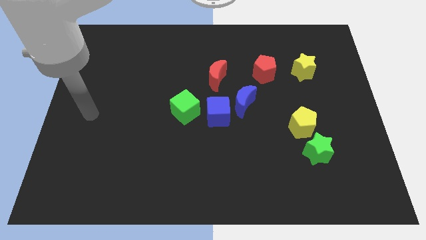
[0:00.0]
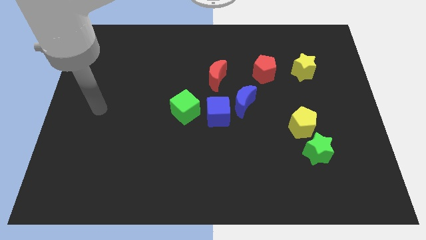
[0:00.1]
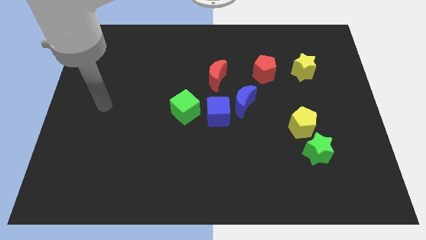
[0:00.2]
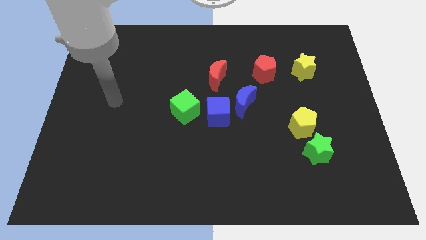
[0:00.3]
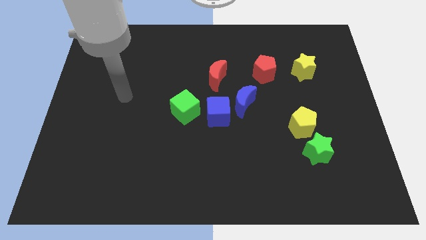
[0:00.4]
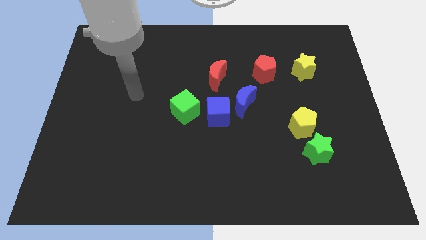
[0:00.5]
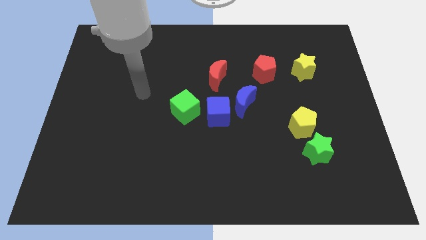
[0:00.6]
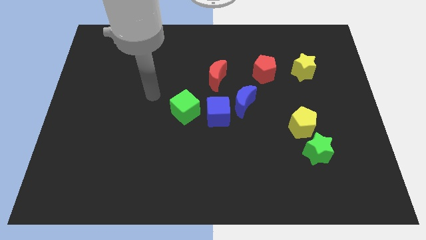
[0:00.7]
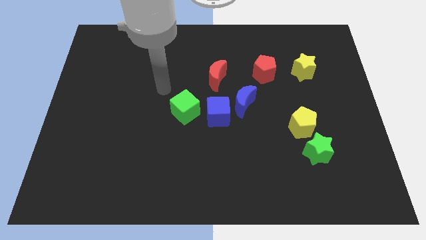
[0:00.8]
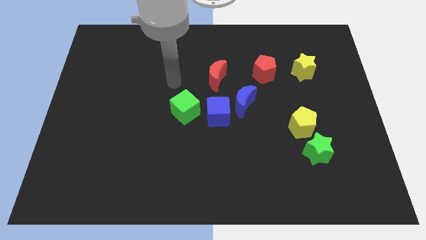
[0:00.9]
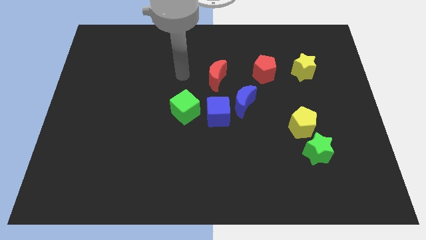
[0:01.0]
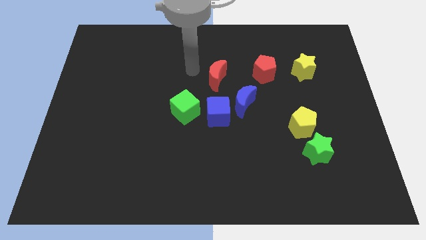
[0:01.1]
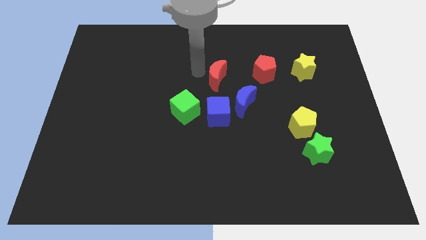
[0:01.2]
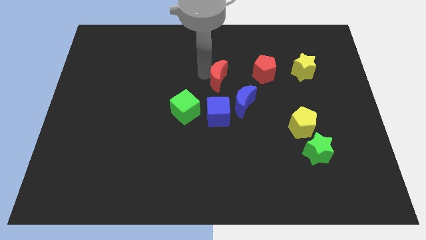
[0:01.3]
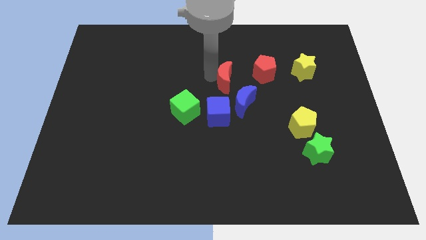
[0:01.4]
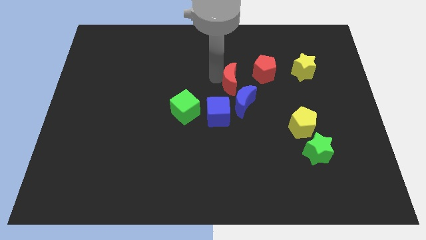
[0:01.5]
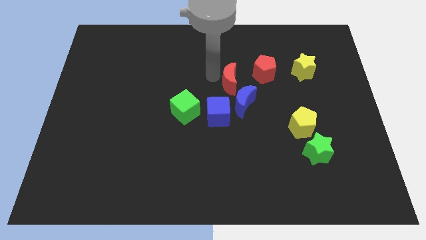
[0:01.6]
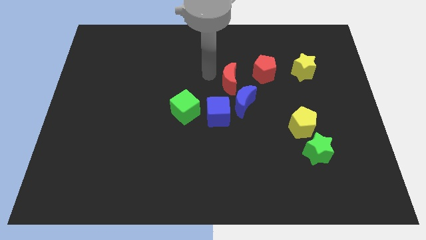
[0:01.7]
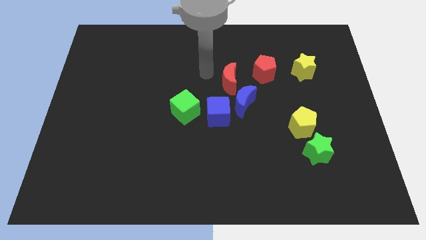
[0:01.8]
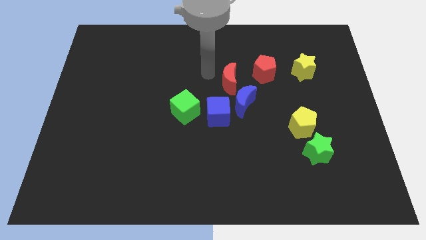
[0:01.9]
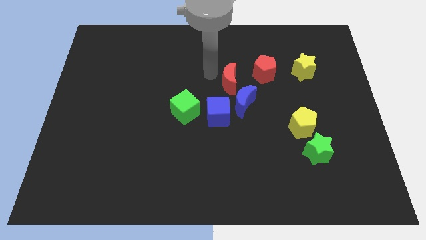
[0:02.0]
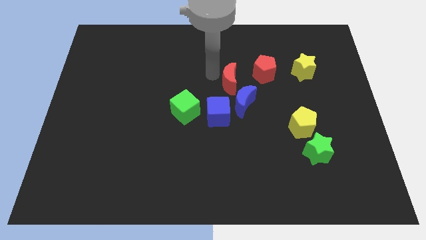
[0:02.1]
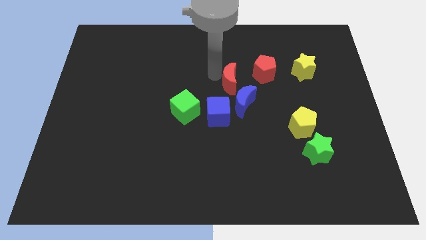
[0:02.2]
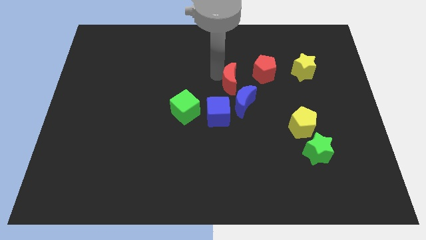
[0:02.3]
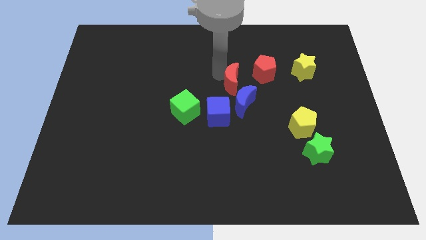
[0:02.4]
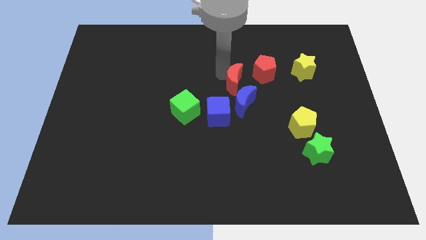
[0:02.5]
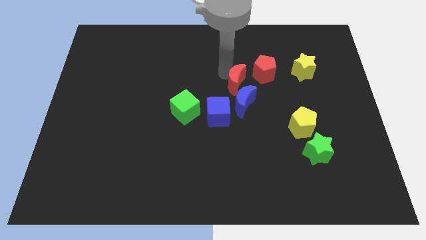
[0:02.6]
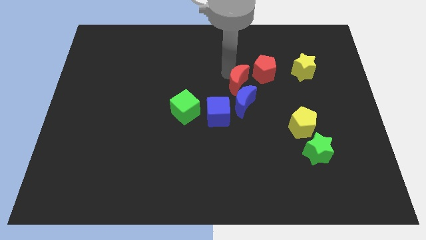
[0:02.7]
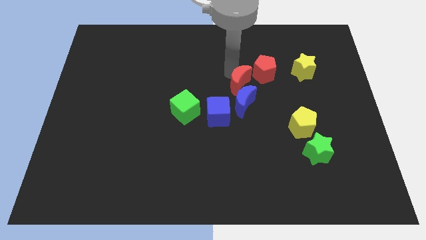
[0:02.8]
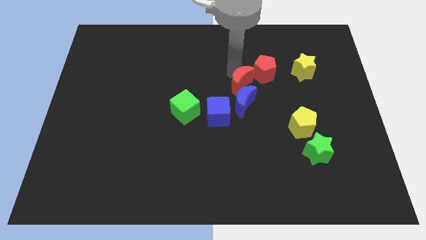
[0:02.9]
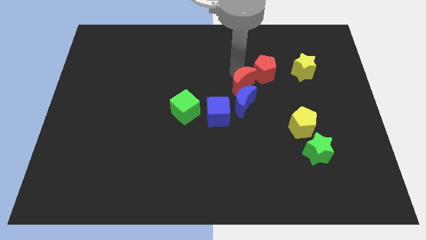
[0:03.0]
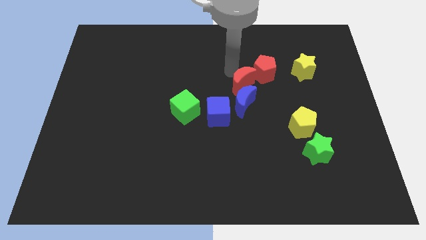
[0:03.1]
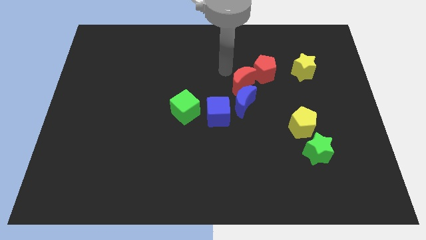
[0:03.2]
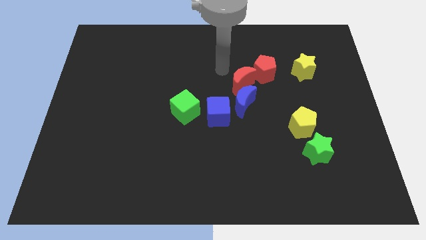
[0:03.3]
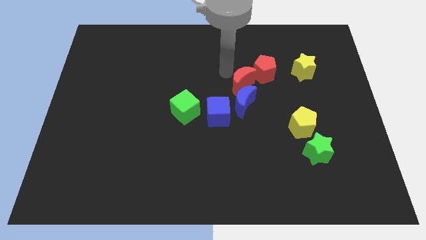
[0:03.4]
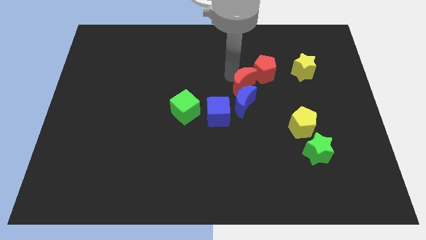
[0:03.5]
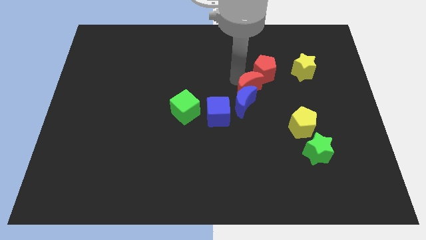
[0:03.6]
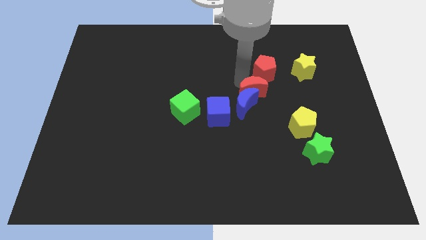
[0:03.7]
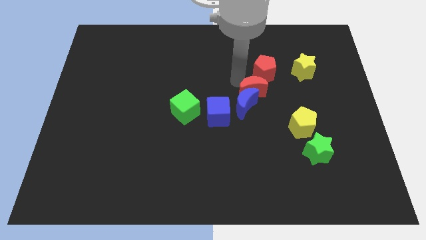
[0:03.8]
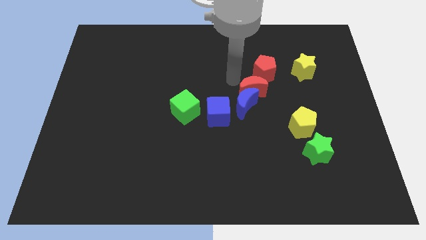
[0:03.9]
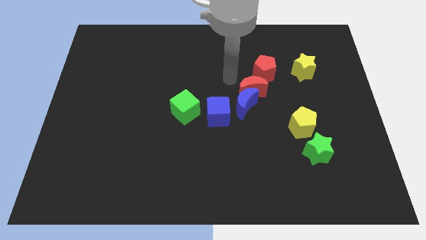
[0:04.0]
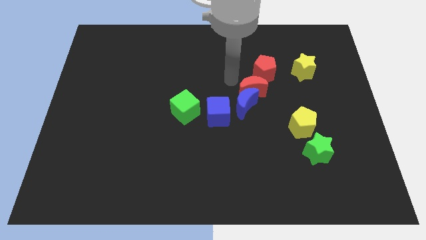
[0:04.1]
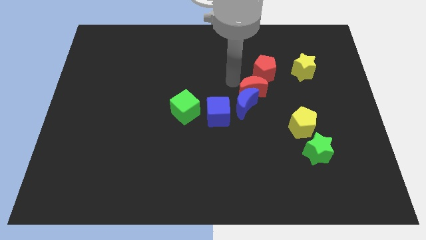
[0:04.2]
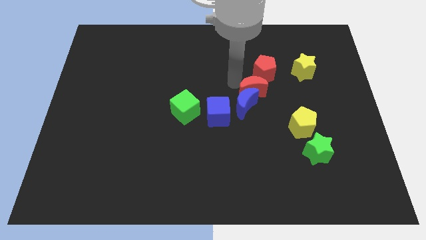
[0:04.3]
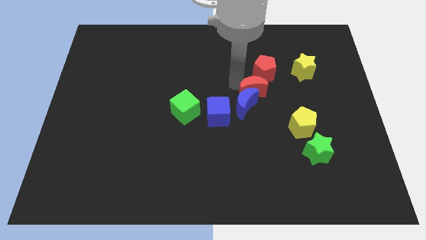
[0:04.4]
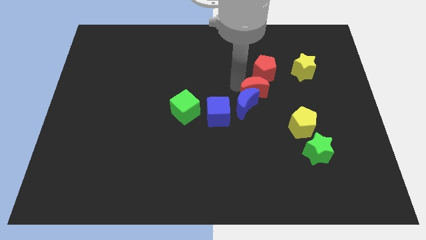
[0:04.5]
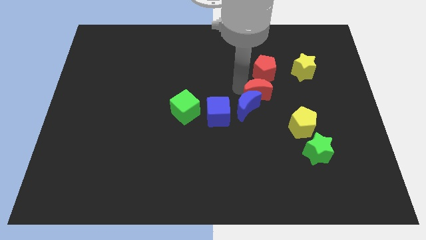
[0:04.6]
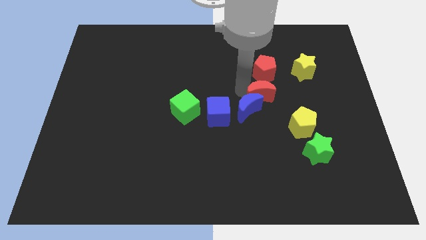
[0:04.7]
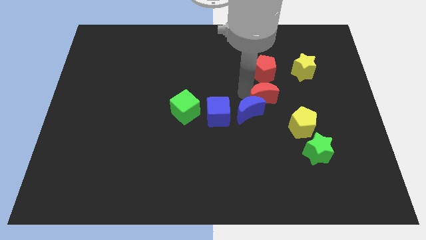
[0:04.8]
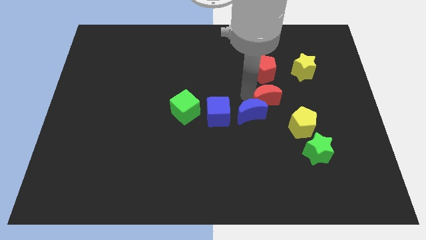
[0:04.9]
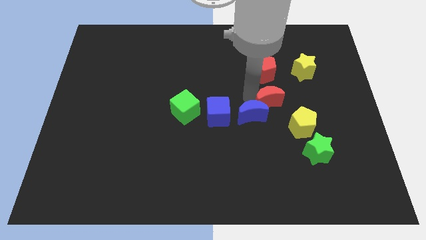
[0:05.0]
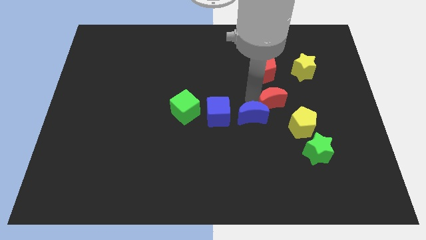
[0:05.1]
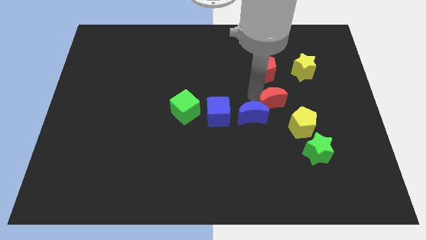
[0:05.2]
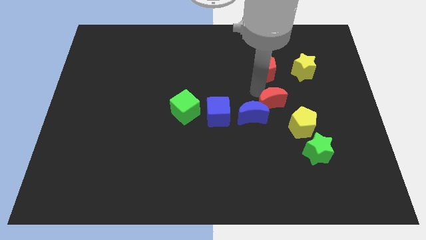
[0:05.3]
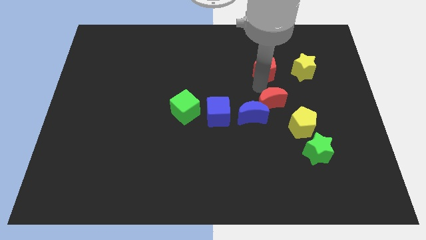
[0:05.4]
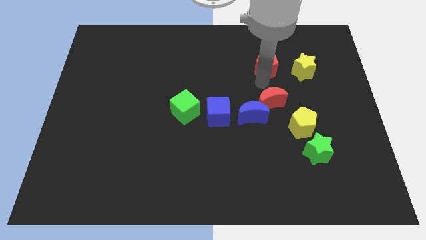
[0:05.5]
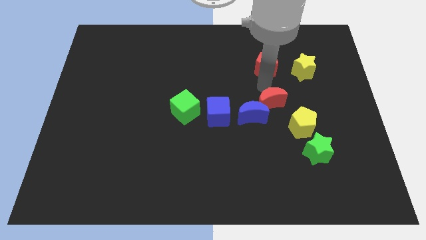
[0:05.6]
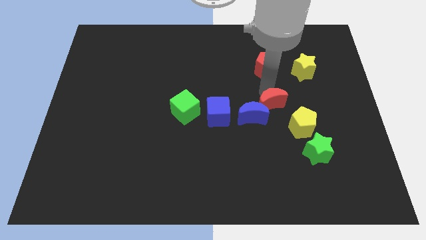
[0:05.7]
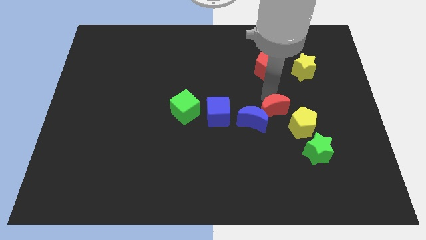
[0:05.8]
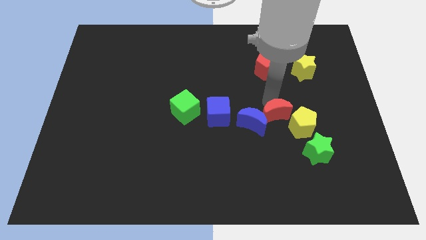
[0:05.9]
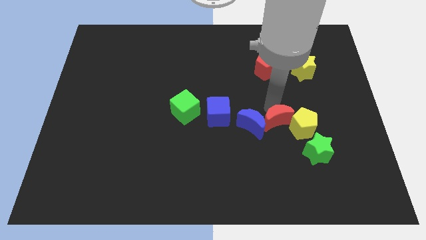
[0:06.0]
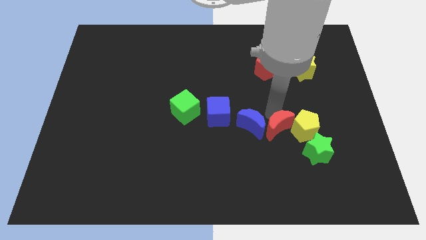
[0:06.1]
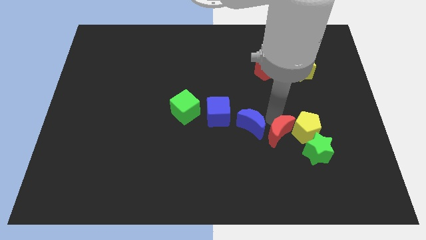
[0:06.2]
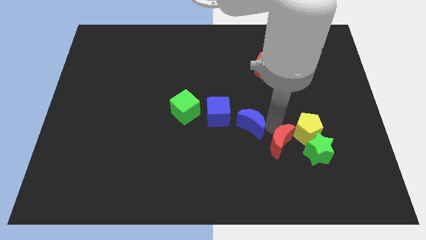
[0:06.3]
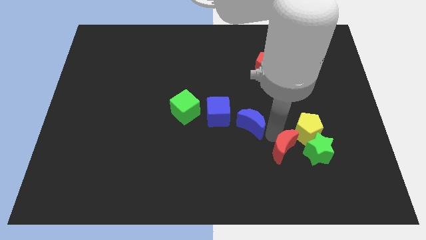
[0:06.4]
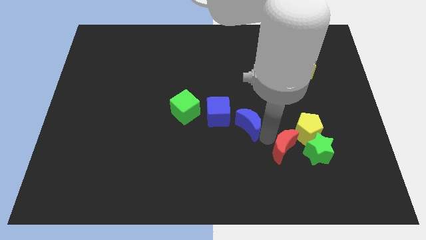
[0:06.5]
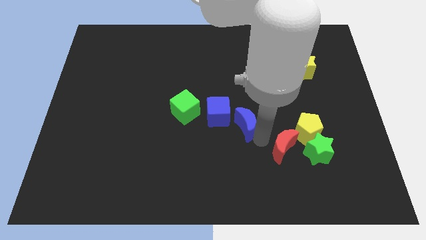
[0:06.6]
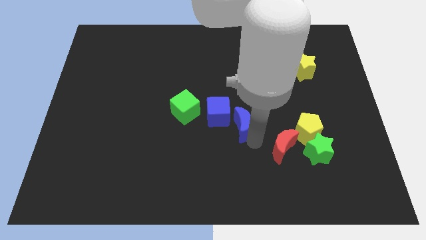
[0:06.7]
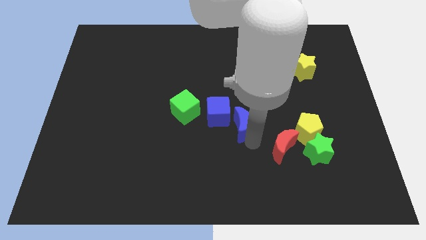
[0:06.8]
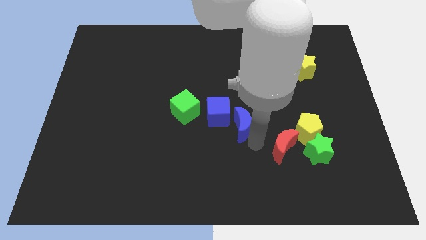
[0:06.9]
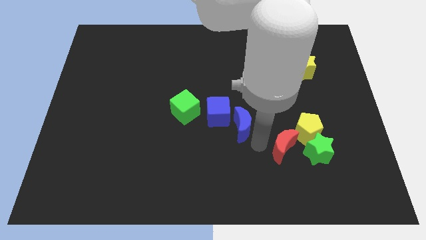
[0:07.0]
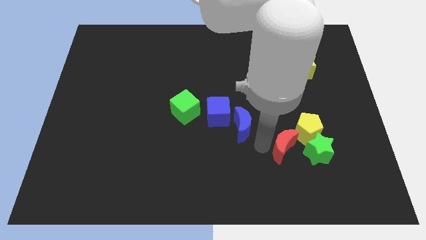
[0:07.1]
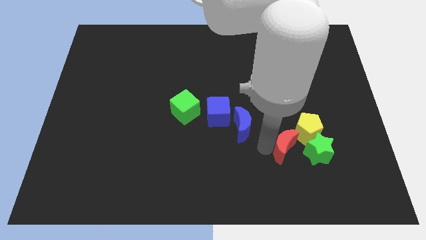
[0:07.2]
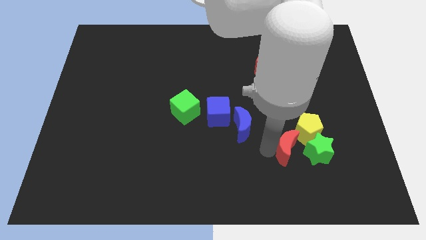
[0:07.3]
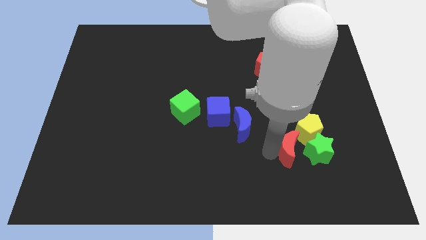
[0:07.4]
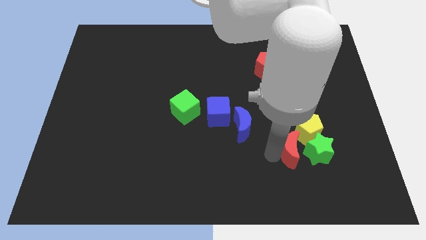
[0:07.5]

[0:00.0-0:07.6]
slide the red moon close to the green star
